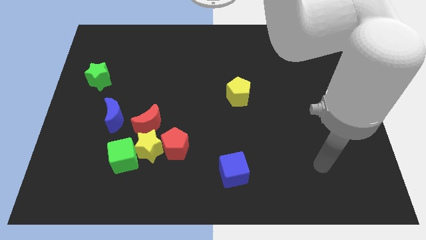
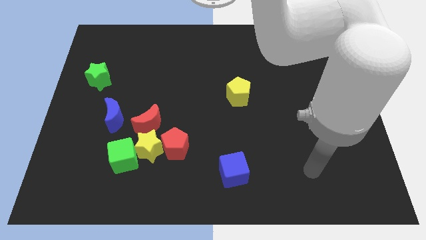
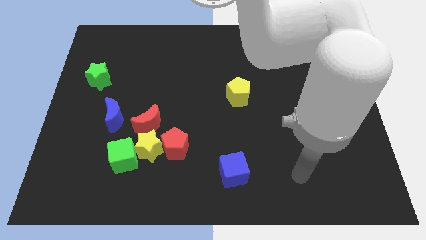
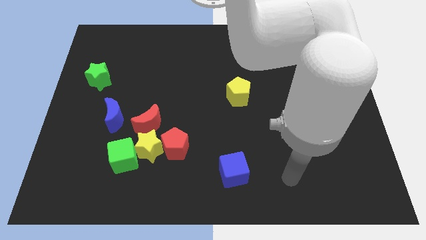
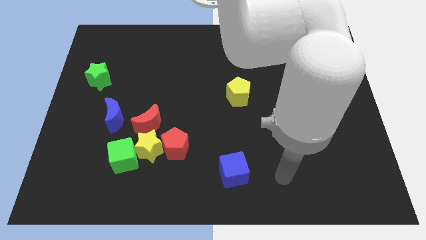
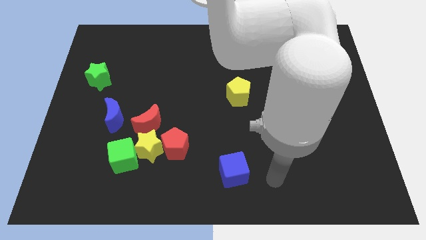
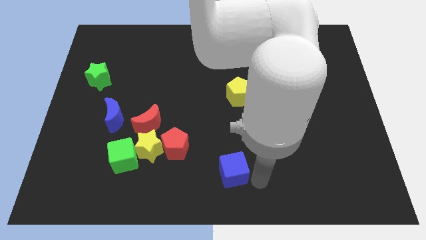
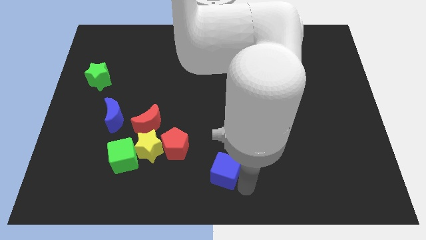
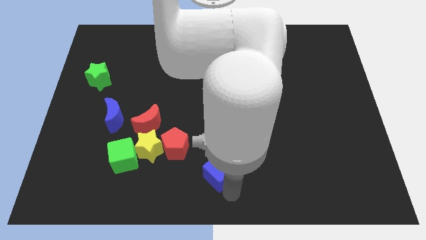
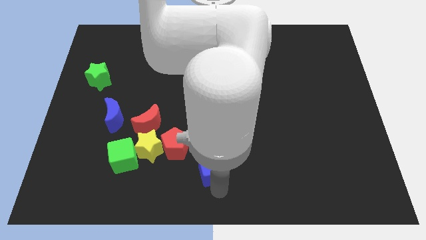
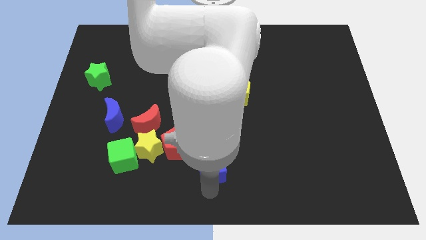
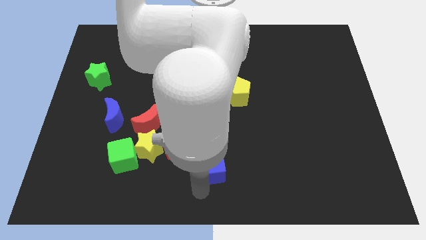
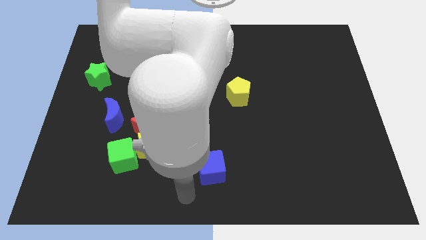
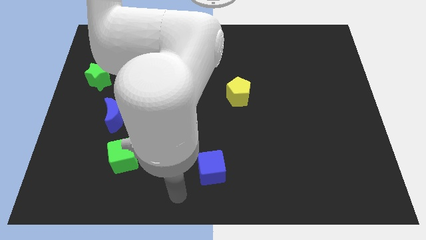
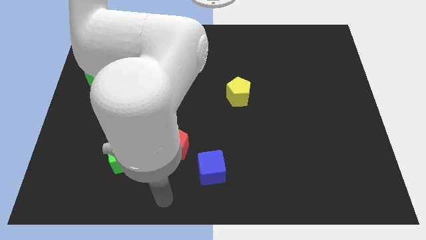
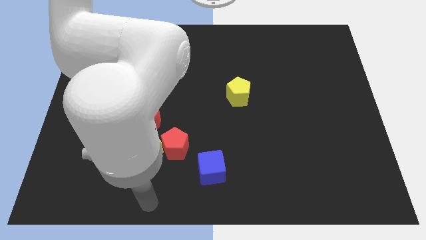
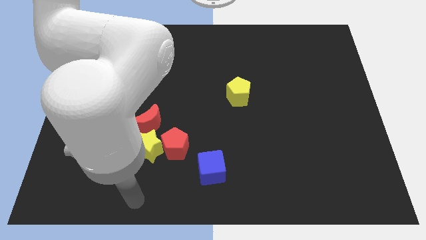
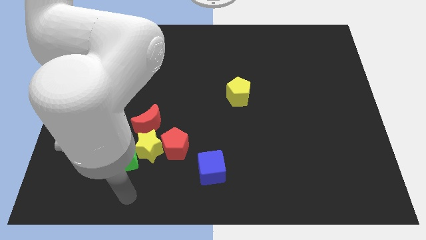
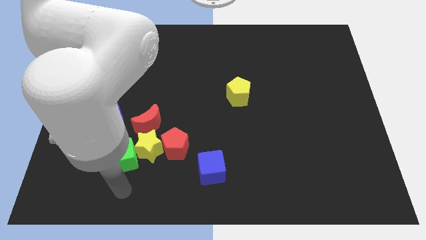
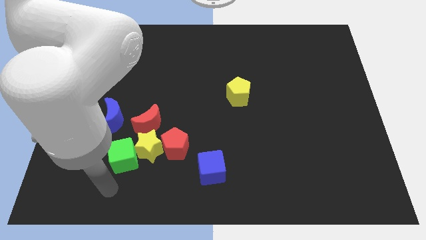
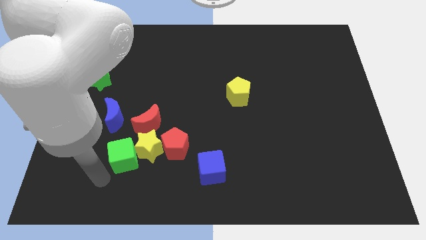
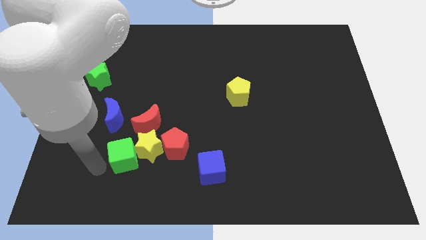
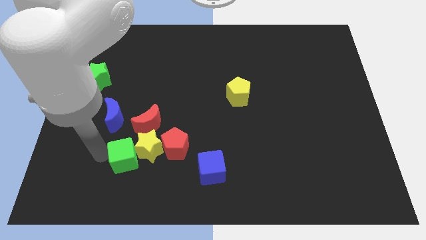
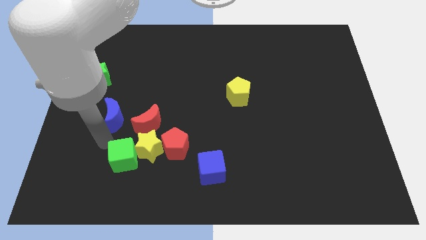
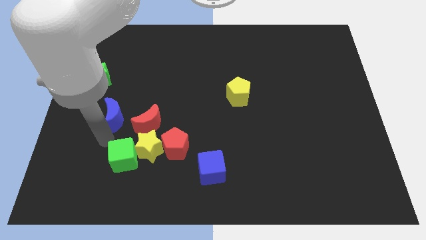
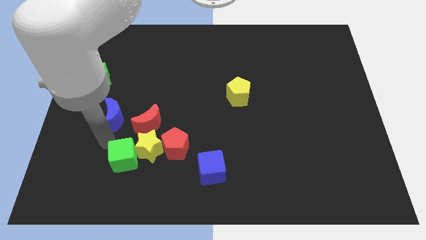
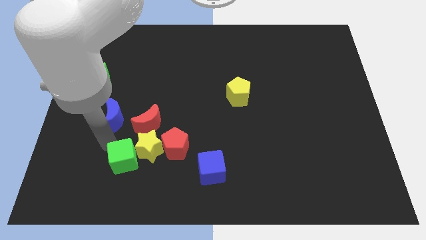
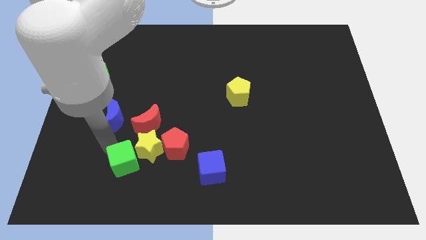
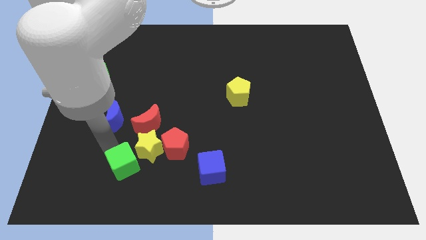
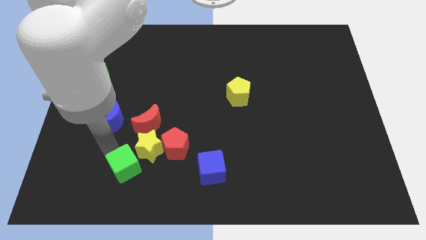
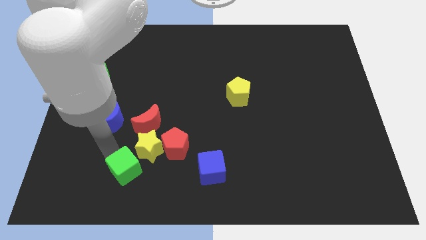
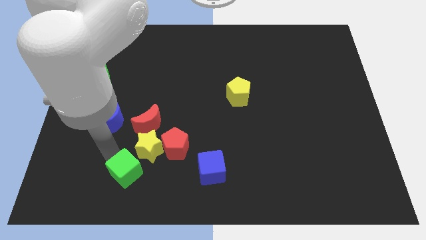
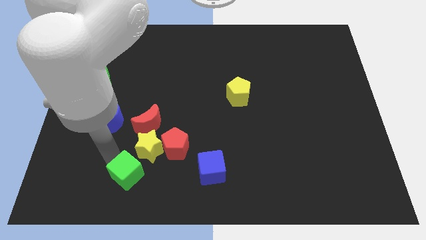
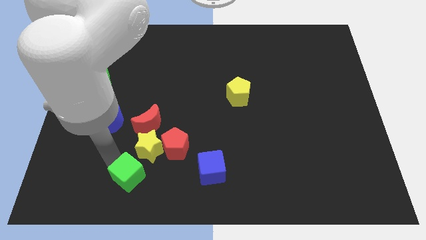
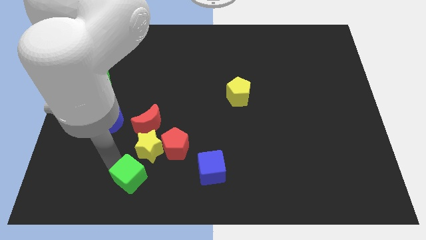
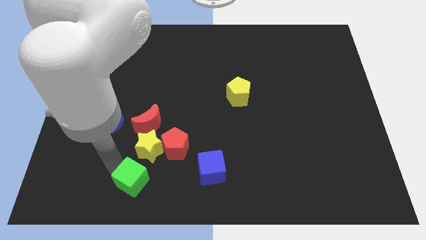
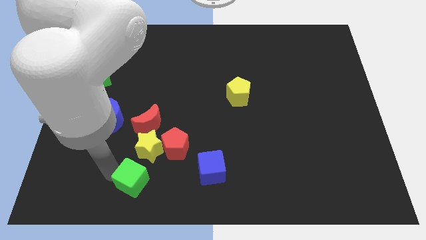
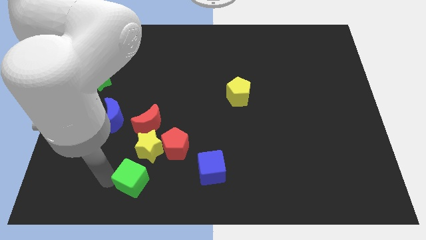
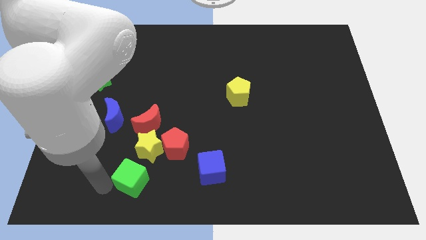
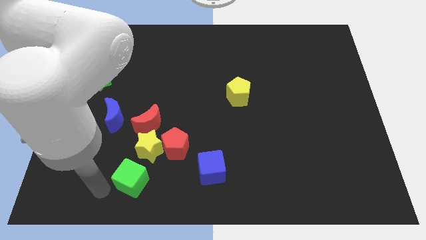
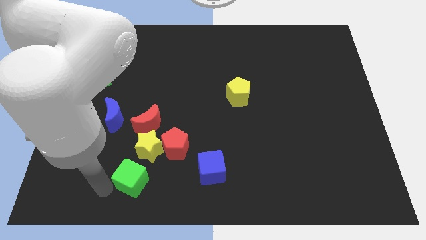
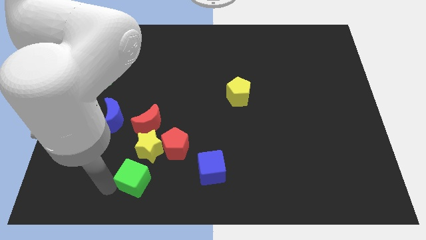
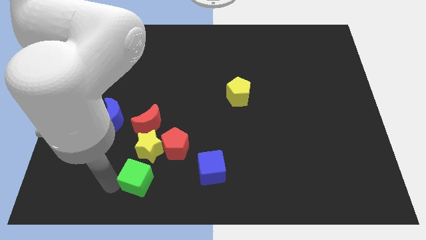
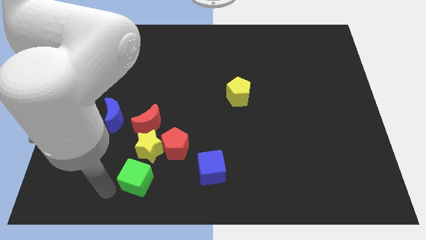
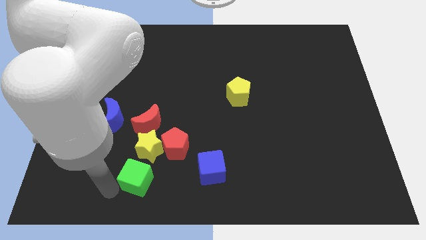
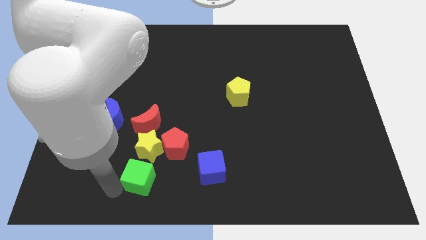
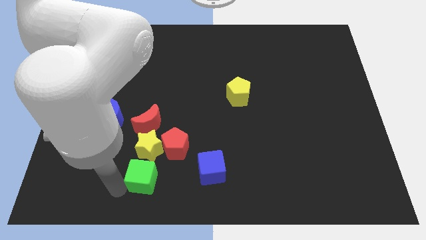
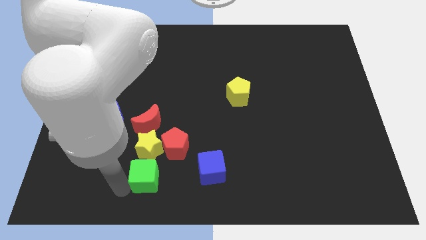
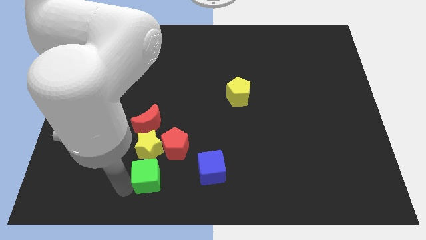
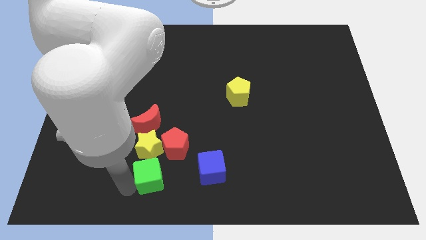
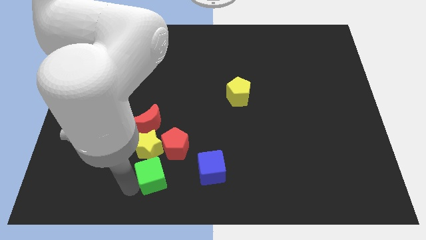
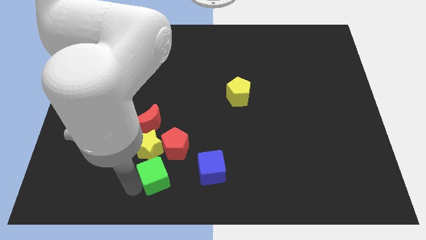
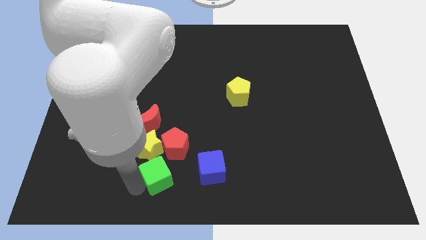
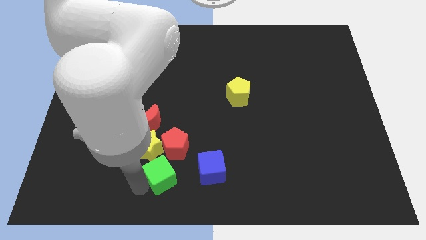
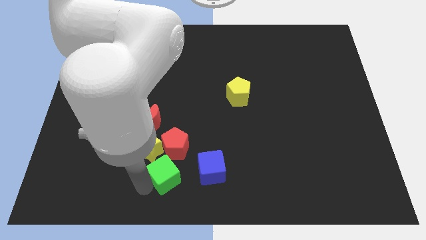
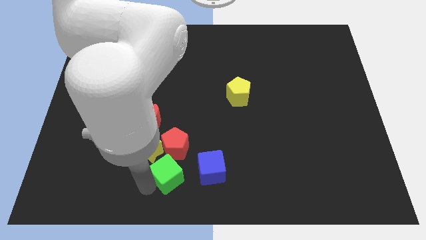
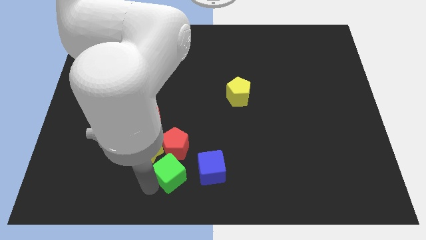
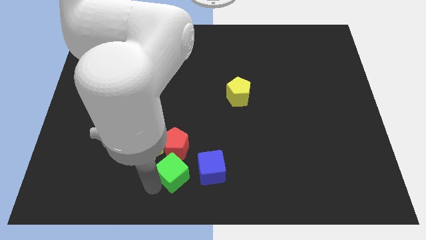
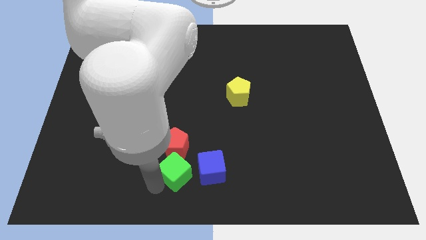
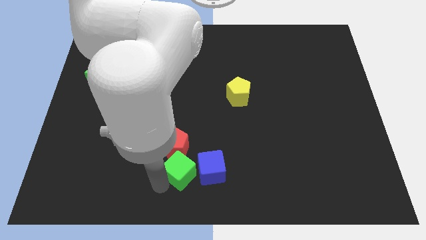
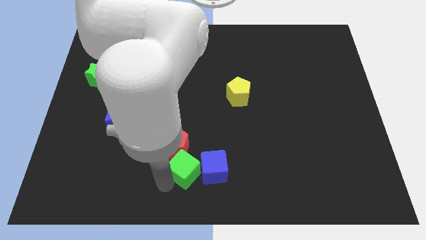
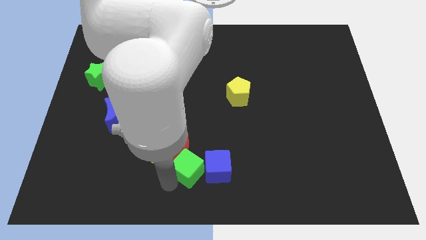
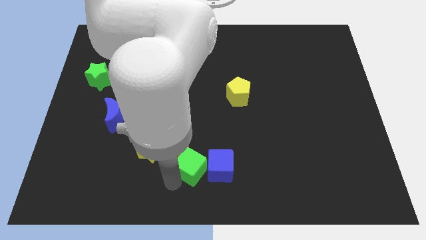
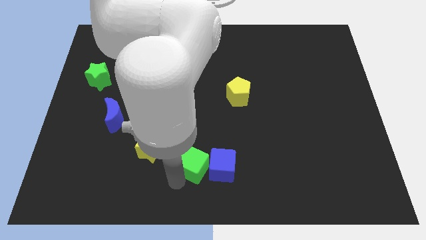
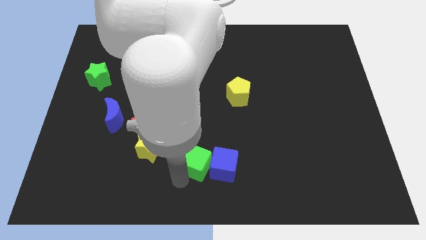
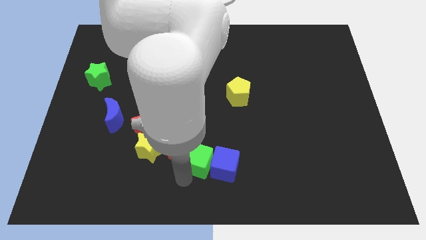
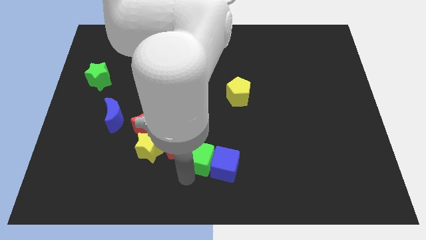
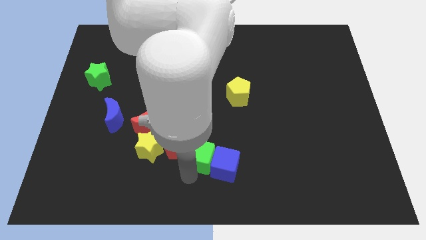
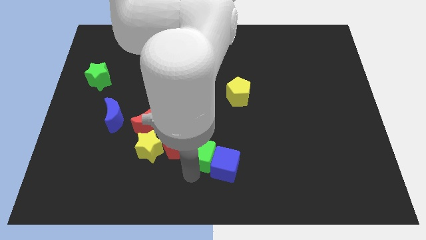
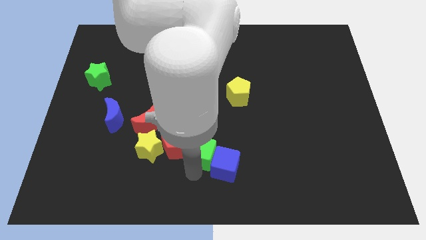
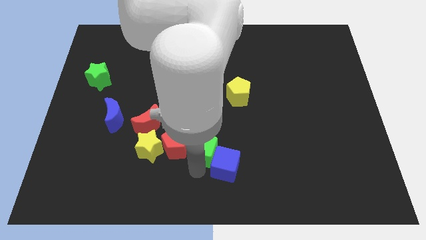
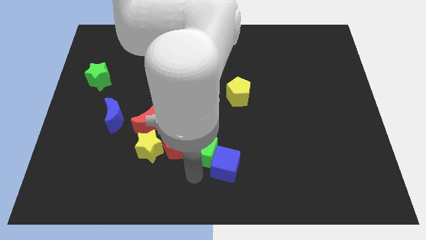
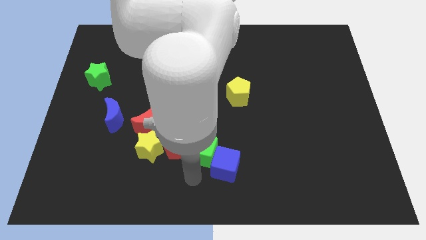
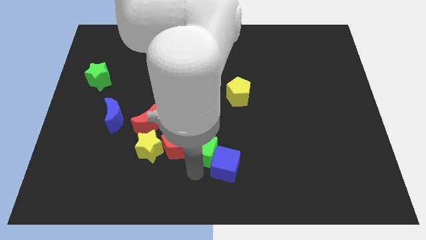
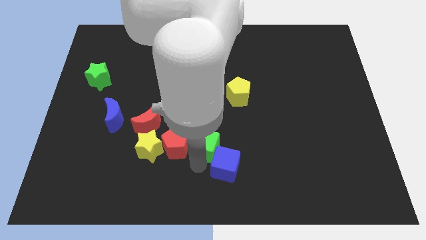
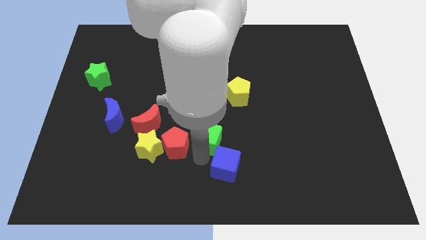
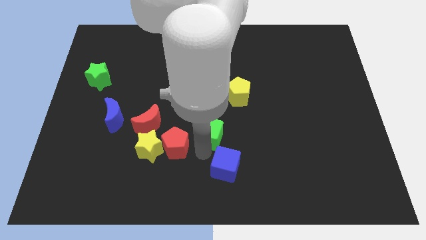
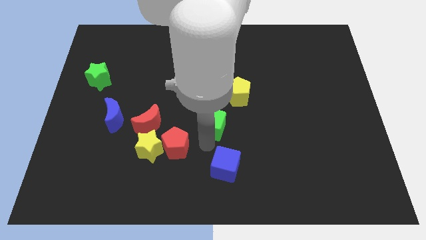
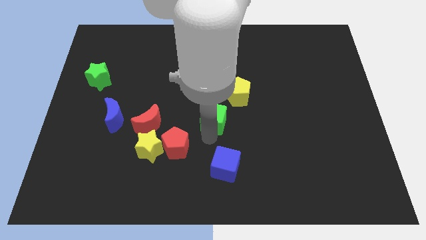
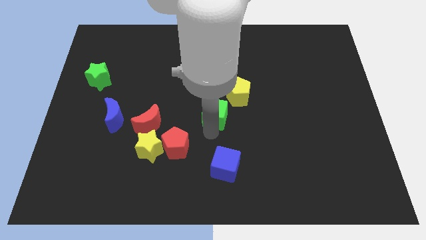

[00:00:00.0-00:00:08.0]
move the green cube upwards and then to the right
